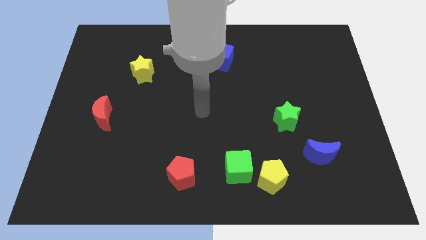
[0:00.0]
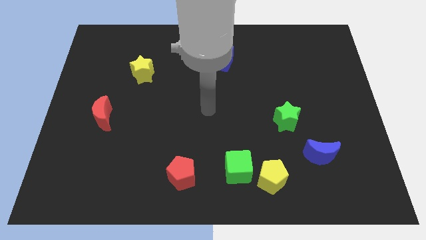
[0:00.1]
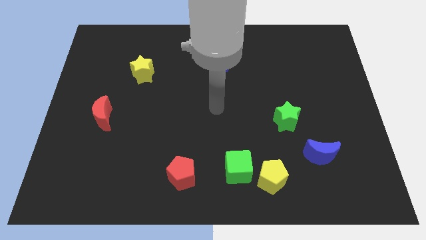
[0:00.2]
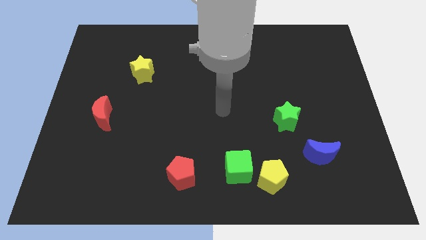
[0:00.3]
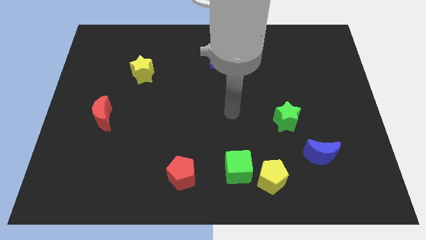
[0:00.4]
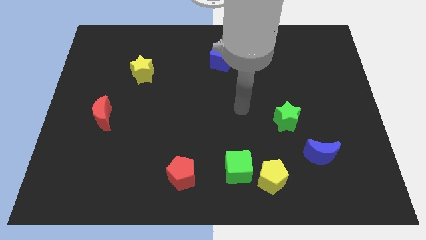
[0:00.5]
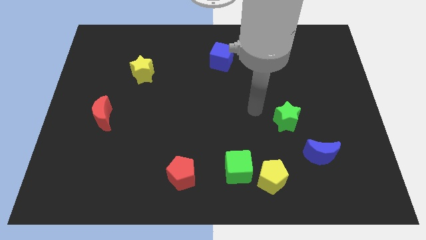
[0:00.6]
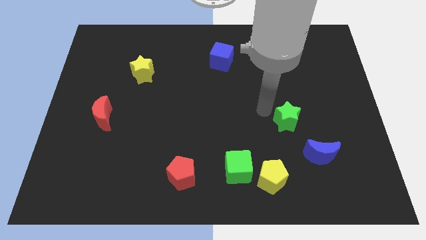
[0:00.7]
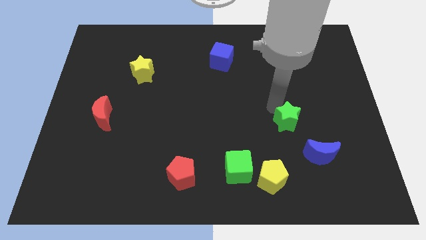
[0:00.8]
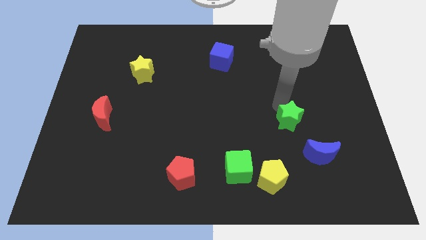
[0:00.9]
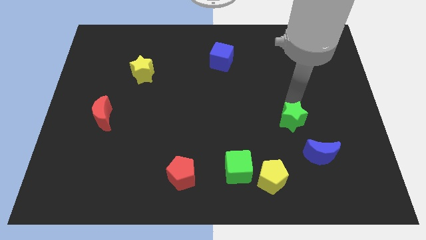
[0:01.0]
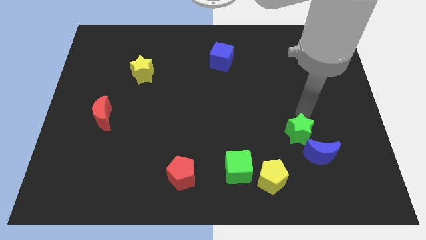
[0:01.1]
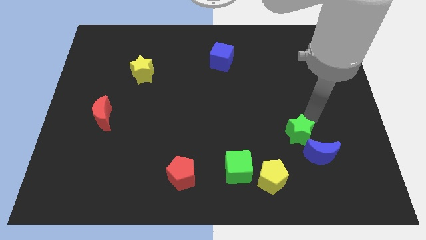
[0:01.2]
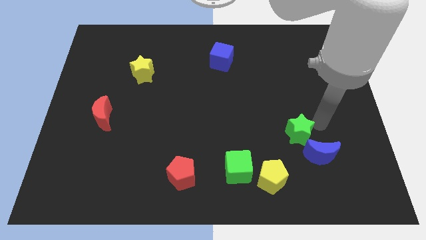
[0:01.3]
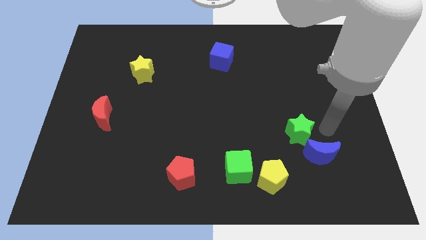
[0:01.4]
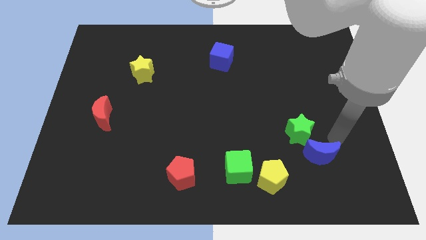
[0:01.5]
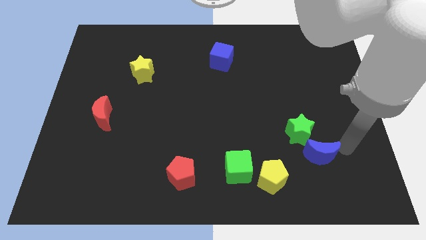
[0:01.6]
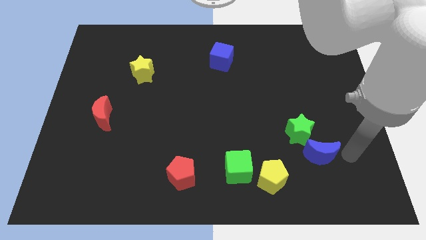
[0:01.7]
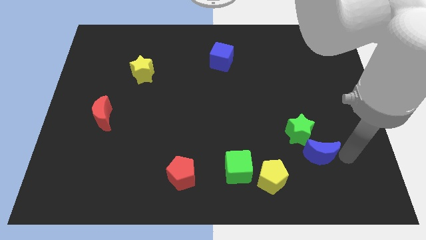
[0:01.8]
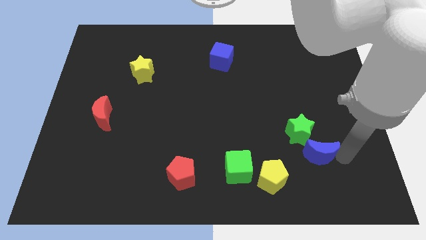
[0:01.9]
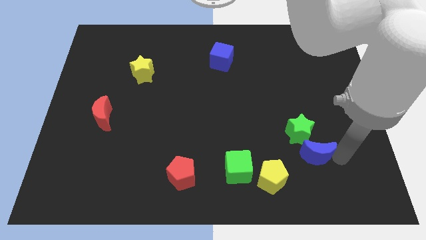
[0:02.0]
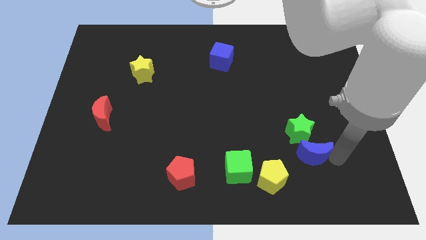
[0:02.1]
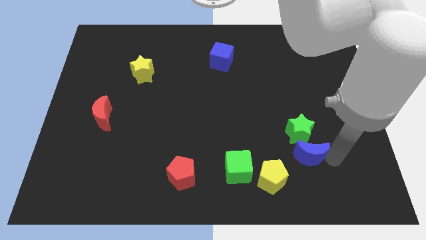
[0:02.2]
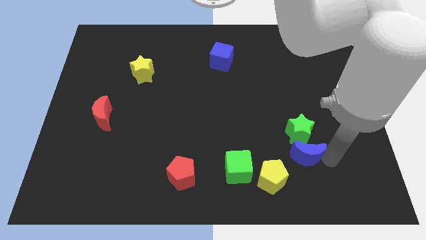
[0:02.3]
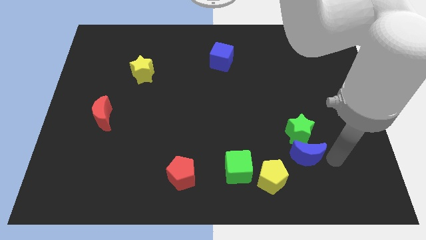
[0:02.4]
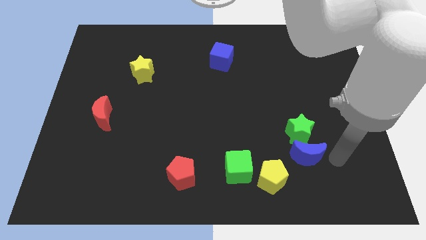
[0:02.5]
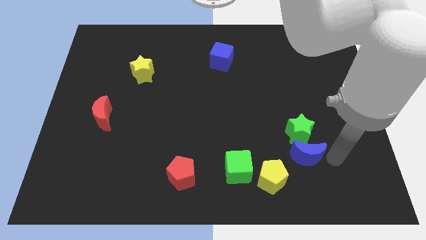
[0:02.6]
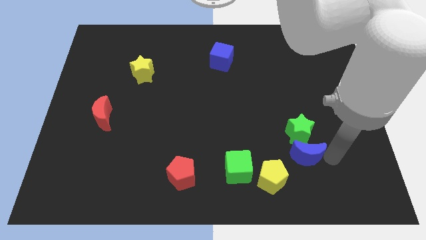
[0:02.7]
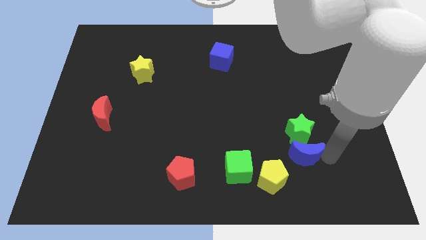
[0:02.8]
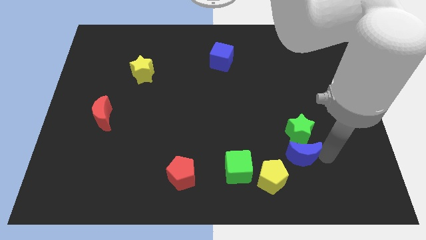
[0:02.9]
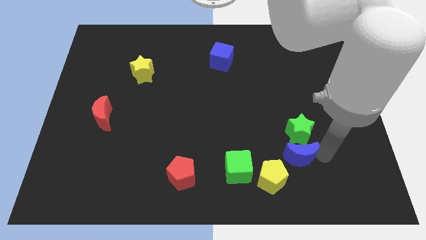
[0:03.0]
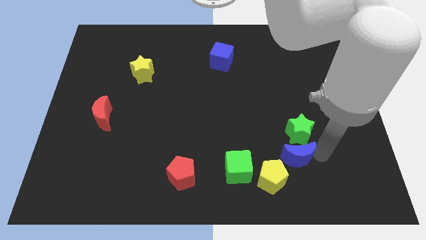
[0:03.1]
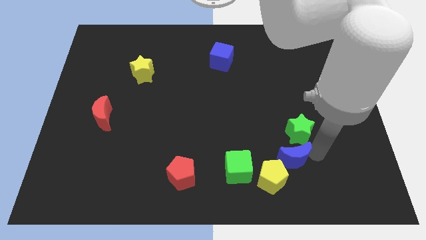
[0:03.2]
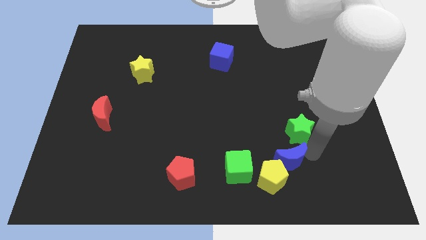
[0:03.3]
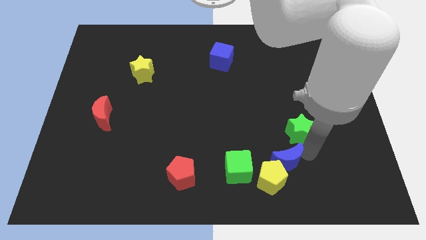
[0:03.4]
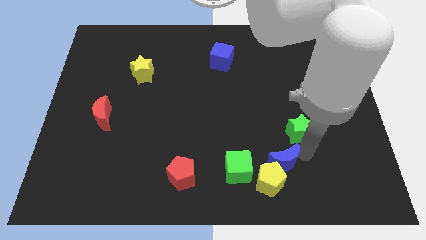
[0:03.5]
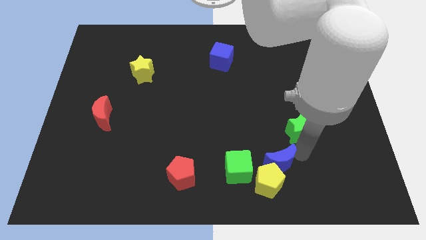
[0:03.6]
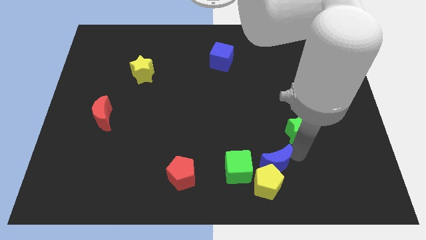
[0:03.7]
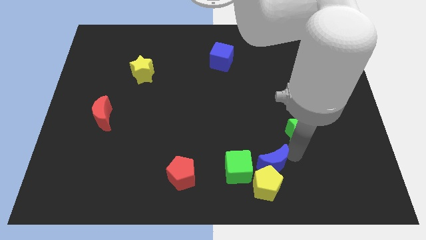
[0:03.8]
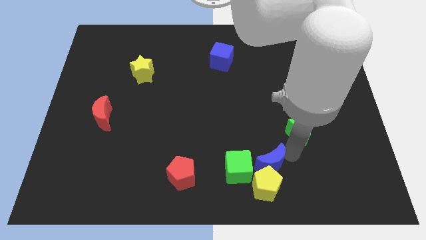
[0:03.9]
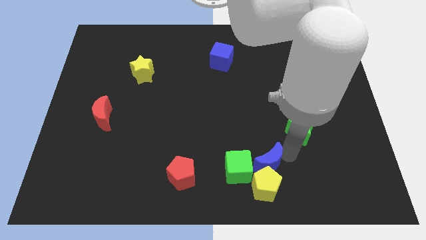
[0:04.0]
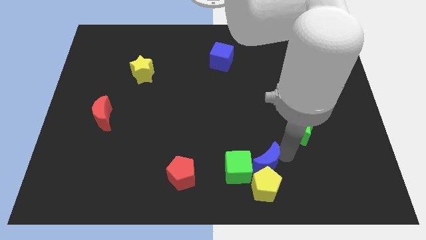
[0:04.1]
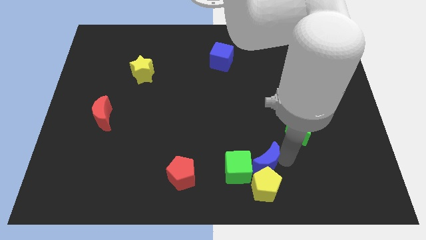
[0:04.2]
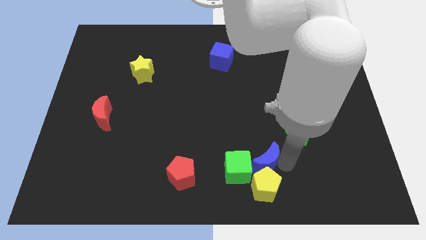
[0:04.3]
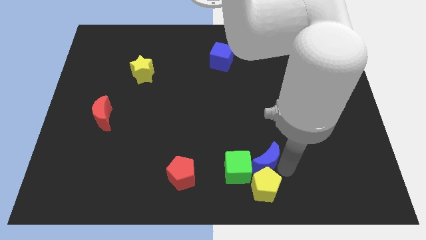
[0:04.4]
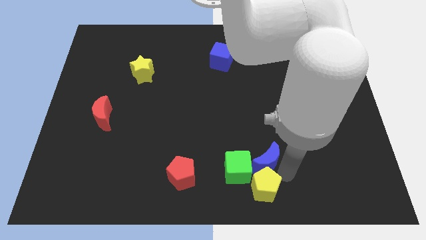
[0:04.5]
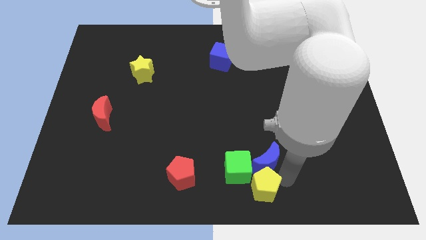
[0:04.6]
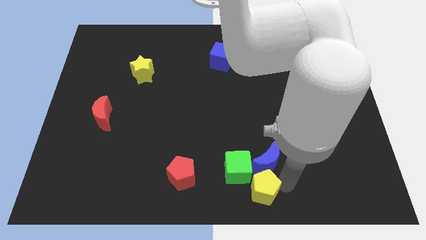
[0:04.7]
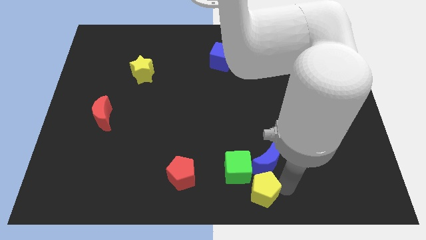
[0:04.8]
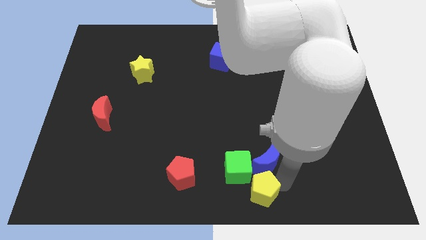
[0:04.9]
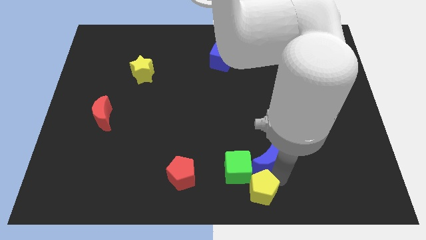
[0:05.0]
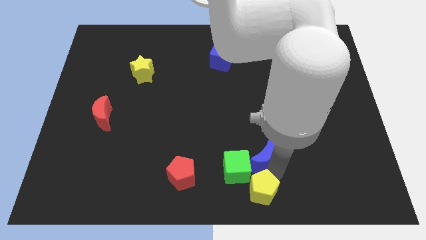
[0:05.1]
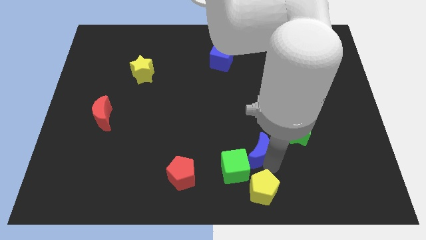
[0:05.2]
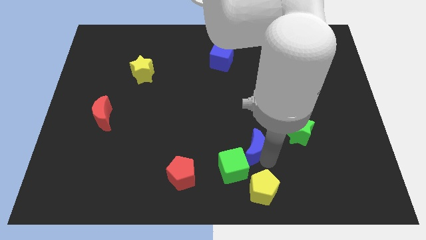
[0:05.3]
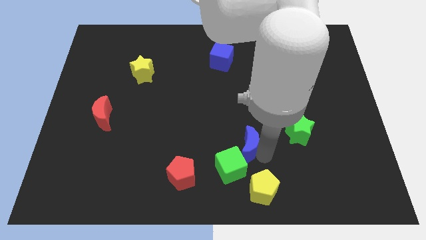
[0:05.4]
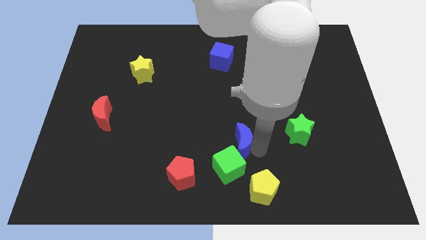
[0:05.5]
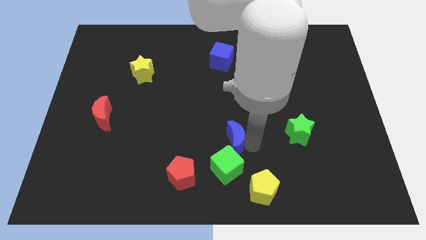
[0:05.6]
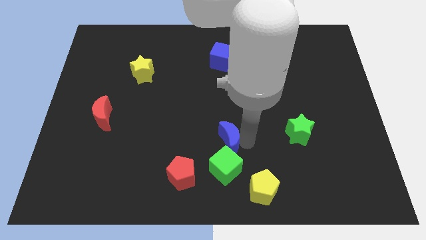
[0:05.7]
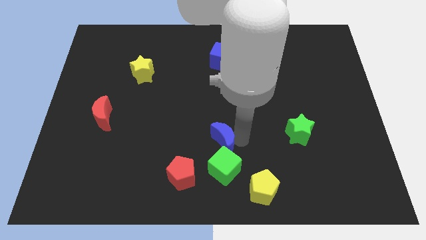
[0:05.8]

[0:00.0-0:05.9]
slide the blue moon left

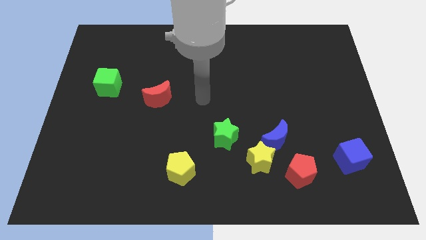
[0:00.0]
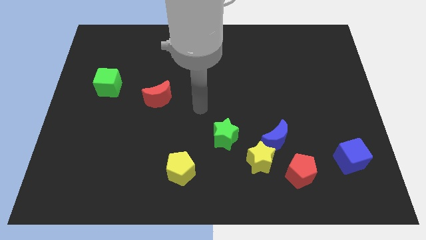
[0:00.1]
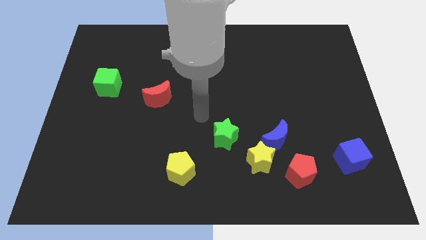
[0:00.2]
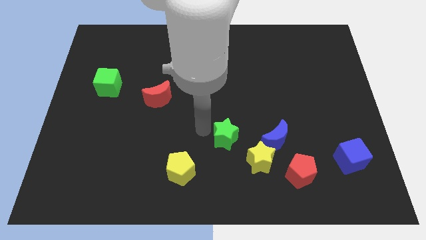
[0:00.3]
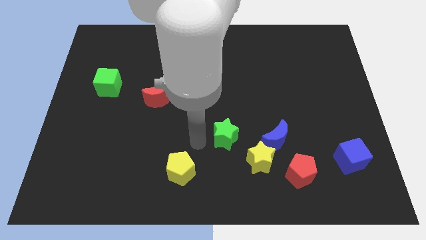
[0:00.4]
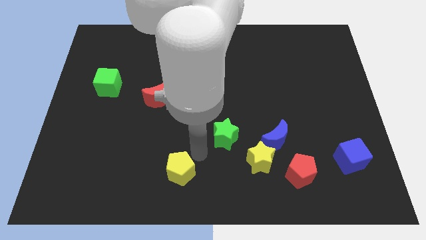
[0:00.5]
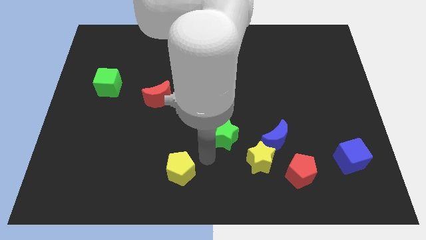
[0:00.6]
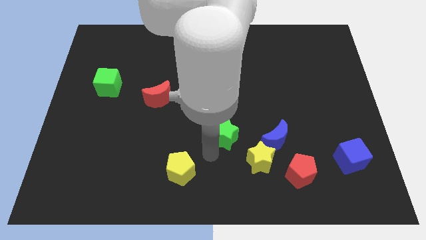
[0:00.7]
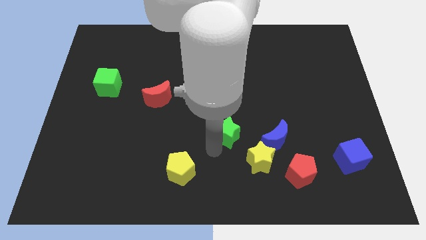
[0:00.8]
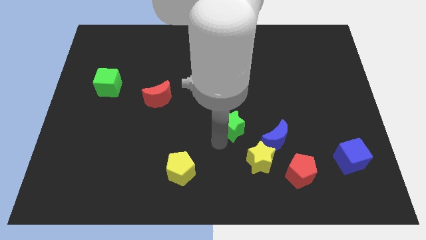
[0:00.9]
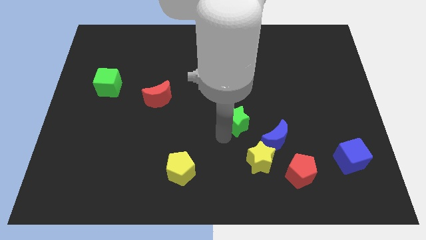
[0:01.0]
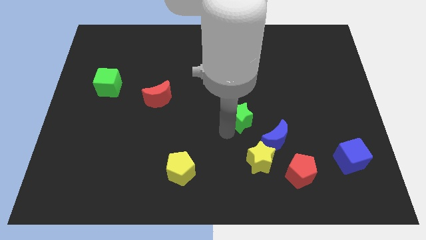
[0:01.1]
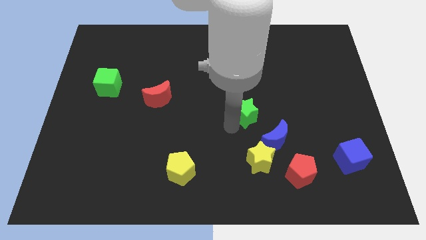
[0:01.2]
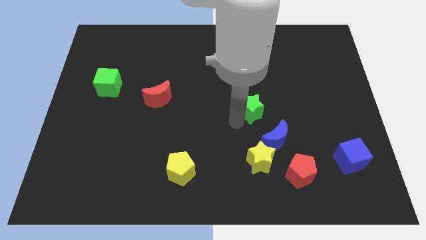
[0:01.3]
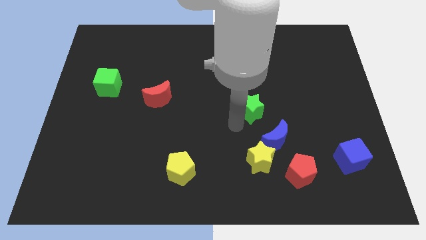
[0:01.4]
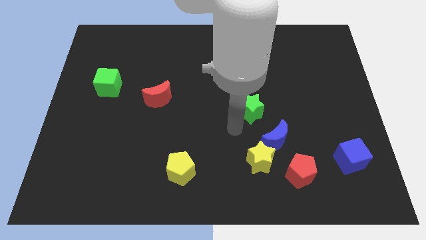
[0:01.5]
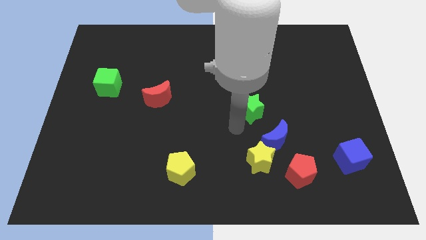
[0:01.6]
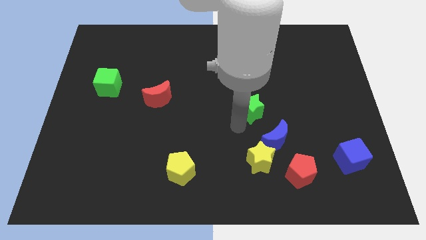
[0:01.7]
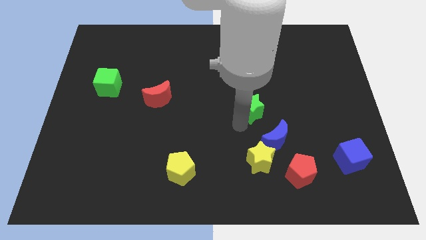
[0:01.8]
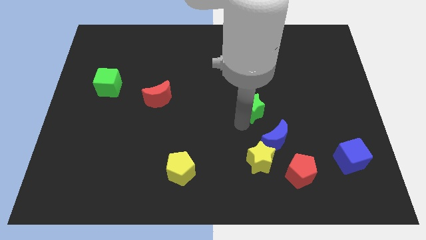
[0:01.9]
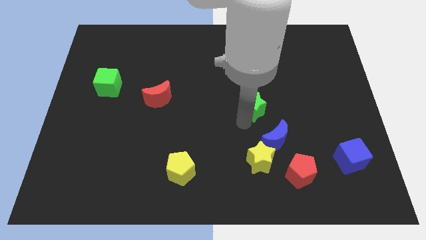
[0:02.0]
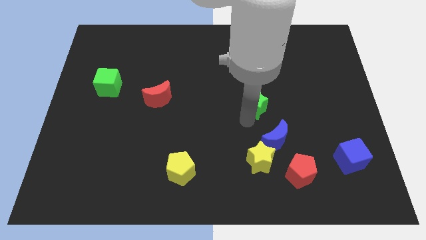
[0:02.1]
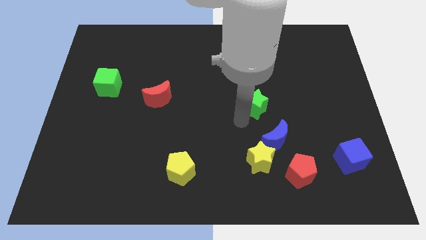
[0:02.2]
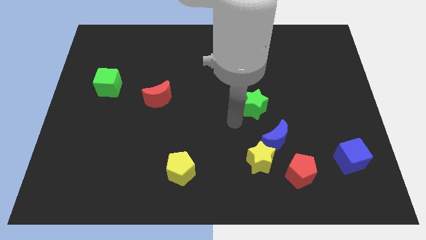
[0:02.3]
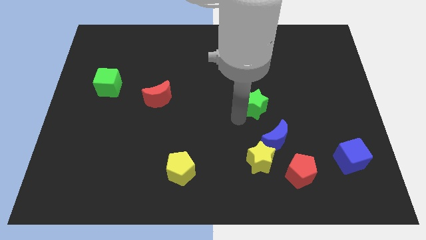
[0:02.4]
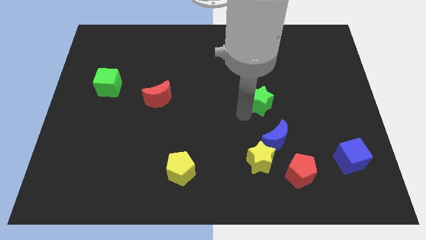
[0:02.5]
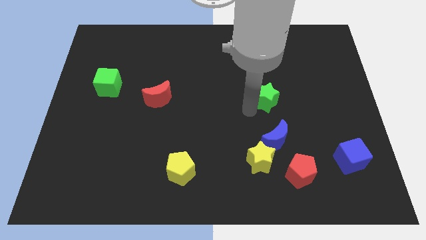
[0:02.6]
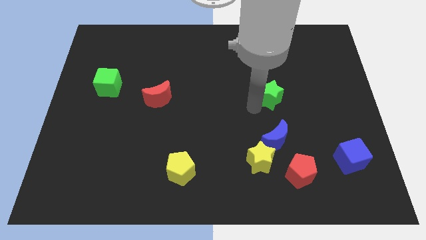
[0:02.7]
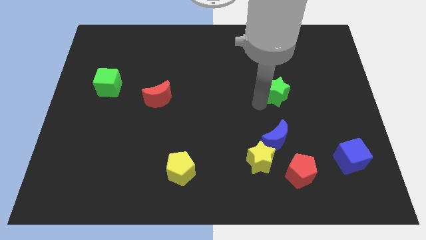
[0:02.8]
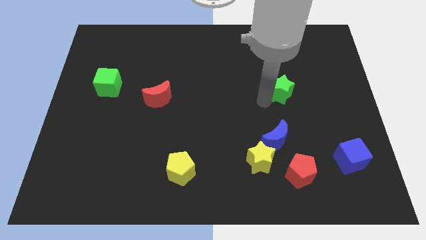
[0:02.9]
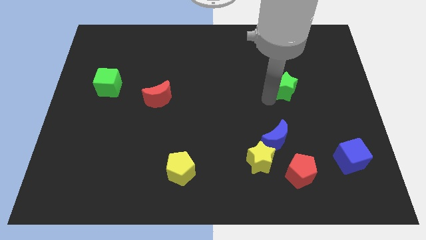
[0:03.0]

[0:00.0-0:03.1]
move the green star diagonally upwards and to the right
